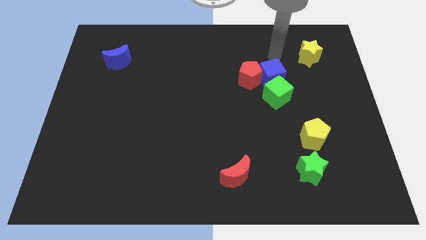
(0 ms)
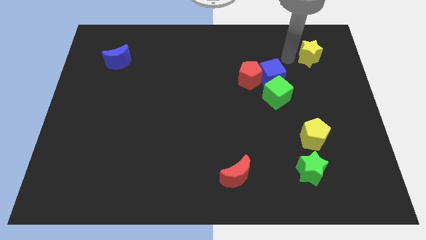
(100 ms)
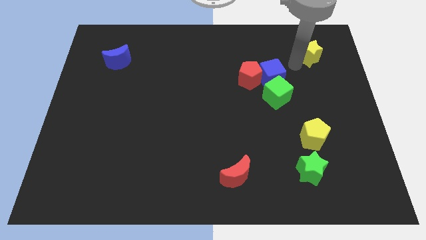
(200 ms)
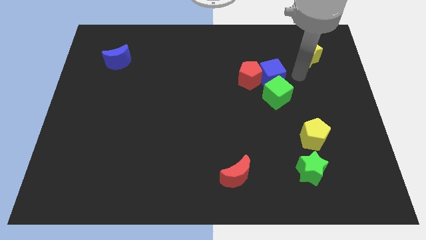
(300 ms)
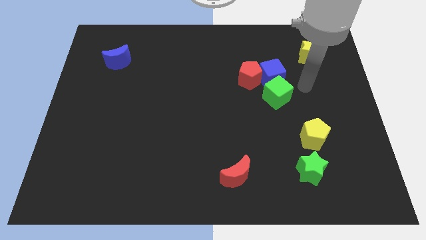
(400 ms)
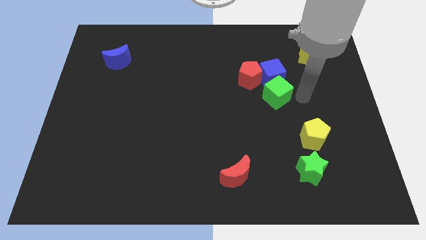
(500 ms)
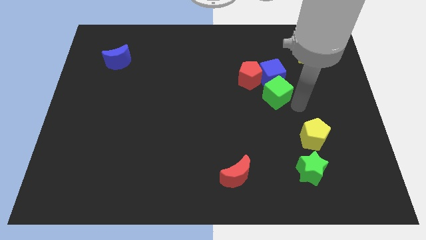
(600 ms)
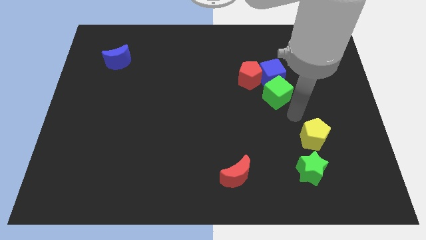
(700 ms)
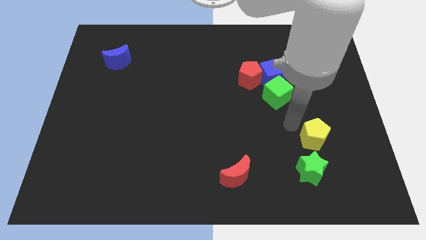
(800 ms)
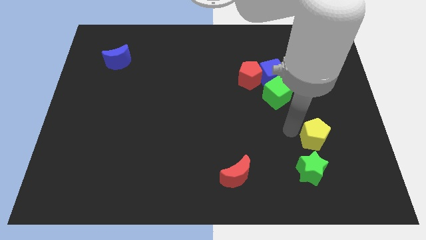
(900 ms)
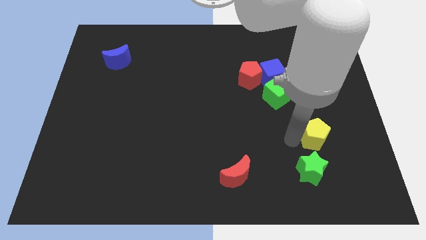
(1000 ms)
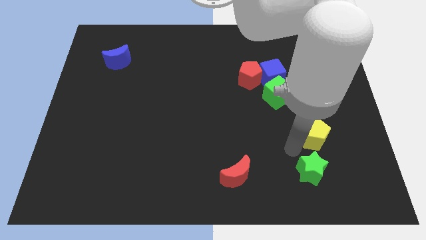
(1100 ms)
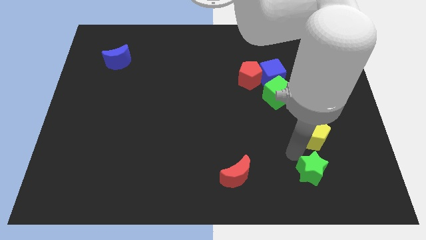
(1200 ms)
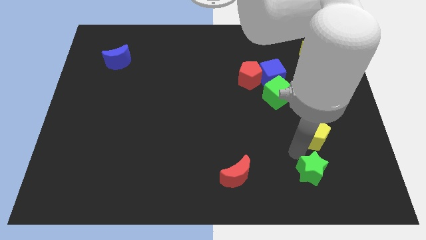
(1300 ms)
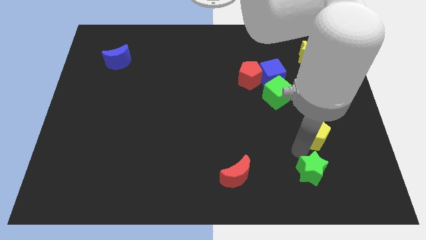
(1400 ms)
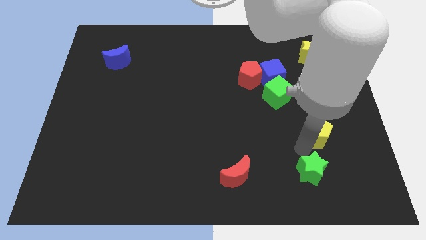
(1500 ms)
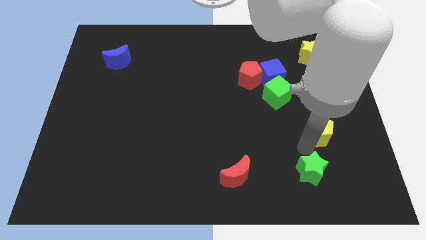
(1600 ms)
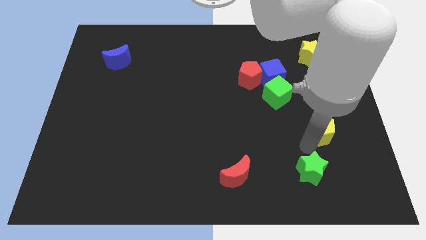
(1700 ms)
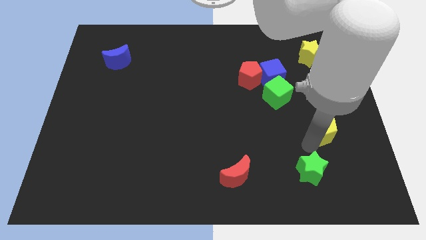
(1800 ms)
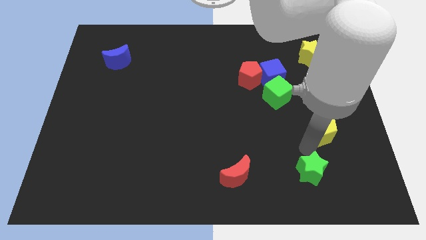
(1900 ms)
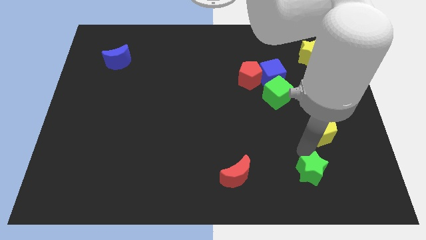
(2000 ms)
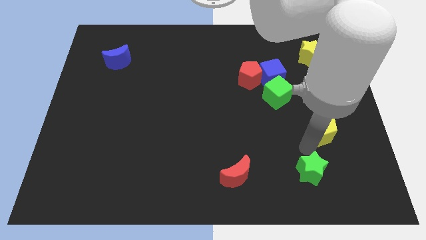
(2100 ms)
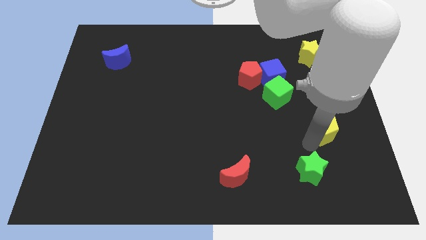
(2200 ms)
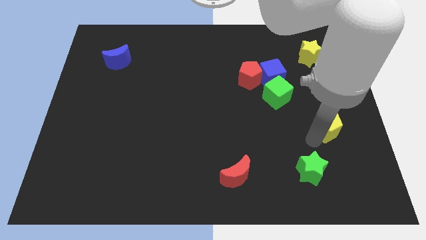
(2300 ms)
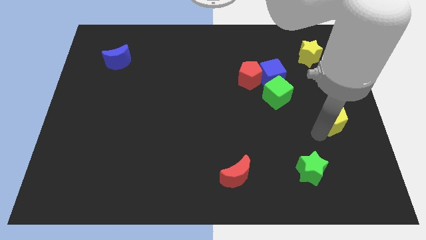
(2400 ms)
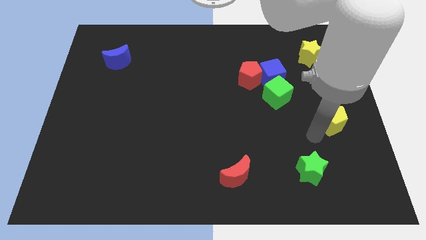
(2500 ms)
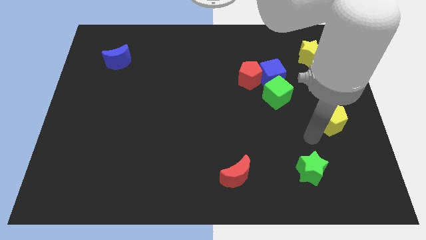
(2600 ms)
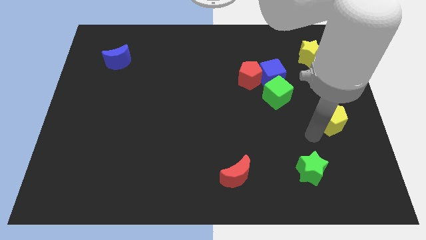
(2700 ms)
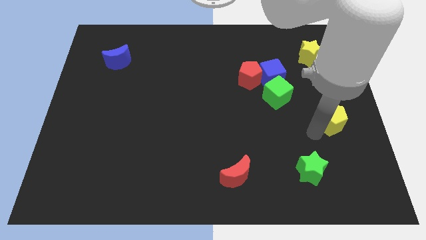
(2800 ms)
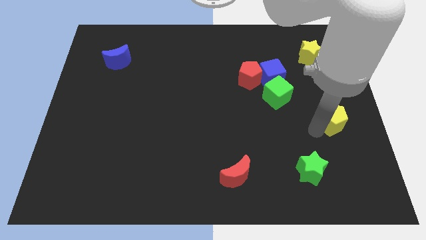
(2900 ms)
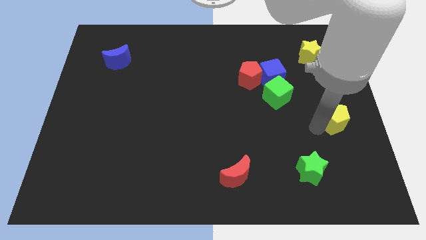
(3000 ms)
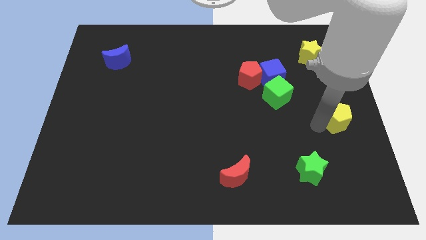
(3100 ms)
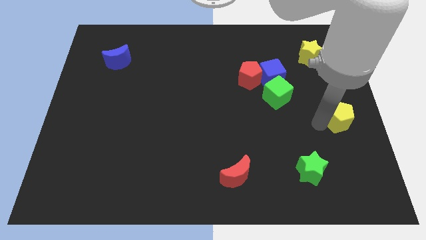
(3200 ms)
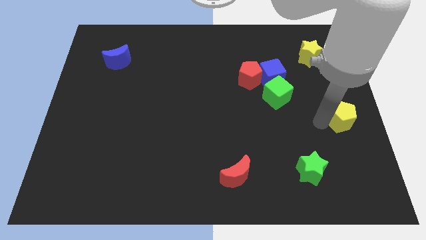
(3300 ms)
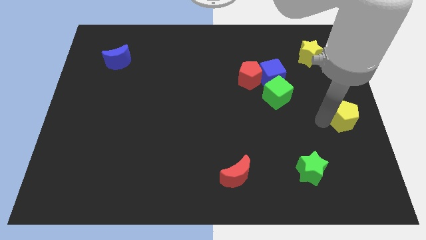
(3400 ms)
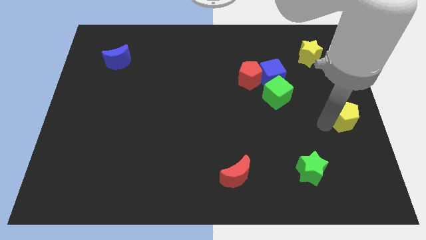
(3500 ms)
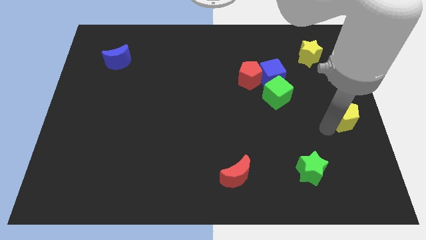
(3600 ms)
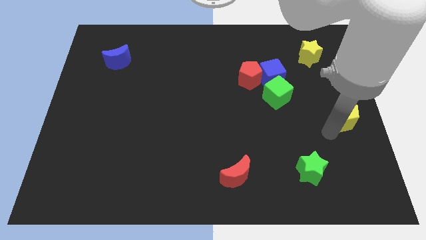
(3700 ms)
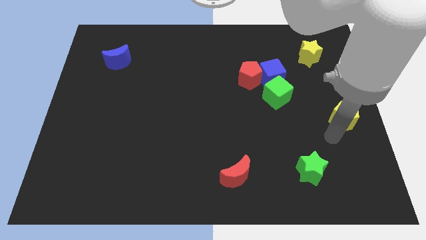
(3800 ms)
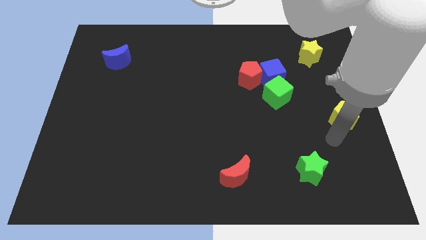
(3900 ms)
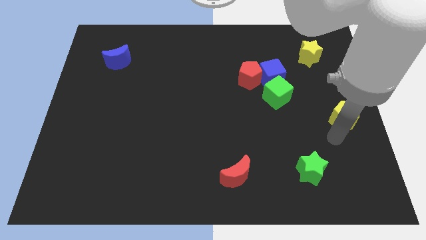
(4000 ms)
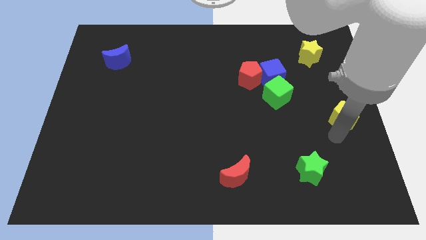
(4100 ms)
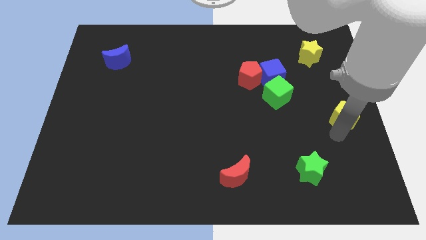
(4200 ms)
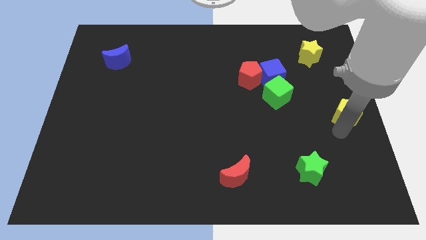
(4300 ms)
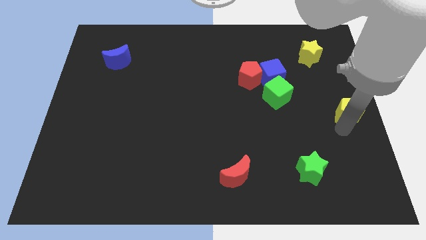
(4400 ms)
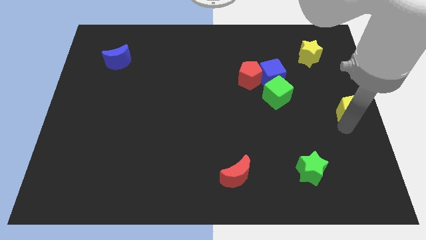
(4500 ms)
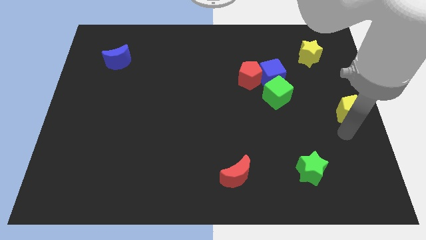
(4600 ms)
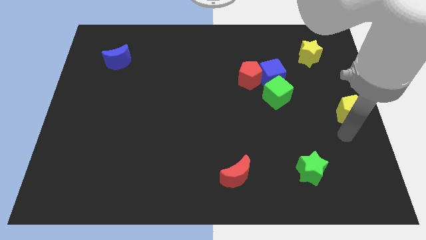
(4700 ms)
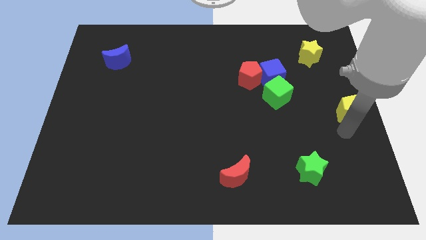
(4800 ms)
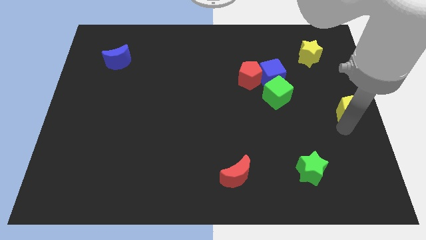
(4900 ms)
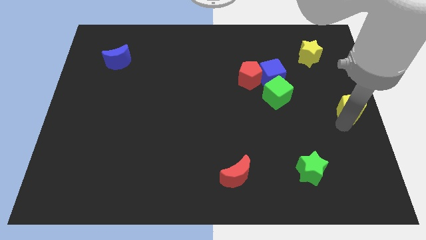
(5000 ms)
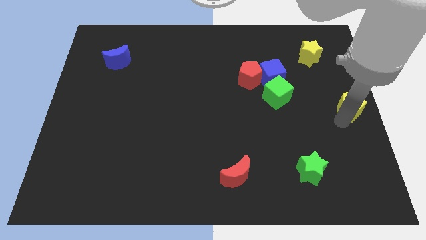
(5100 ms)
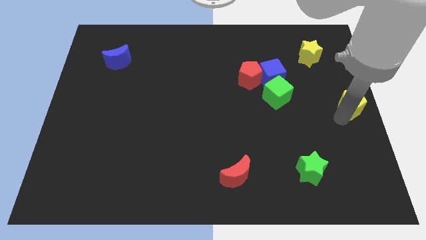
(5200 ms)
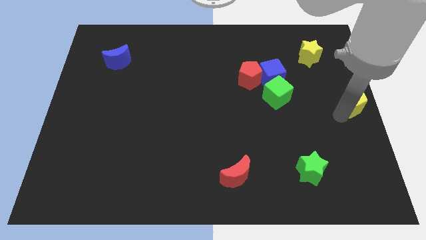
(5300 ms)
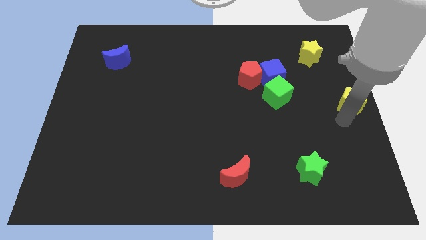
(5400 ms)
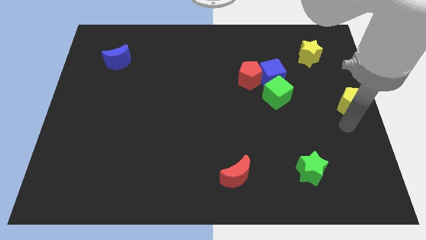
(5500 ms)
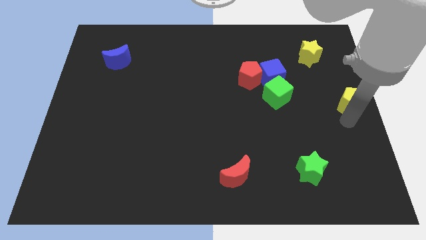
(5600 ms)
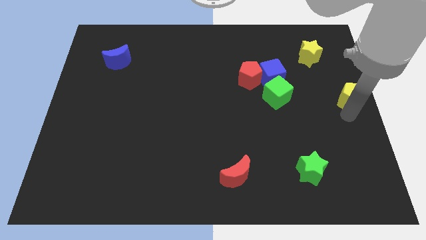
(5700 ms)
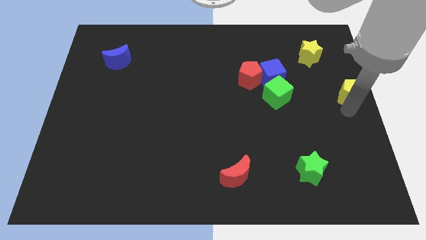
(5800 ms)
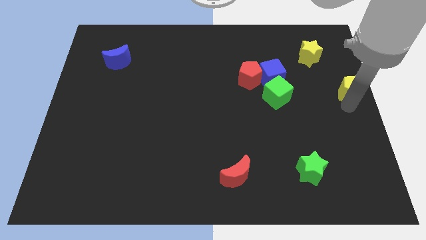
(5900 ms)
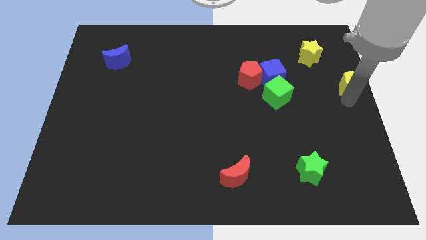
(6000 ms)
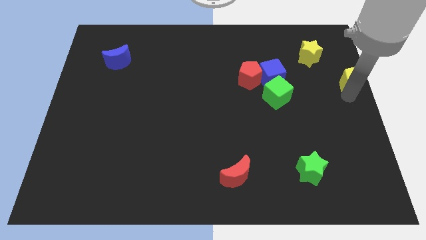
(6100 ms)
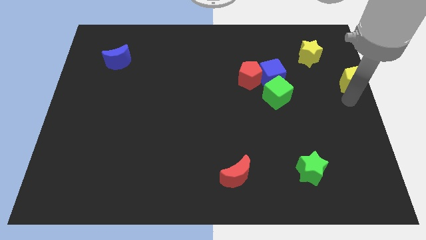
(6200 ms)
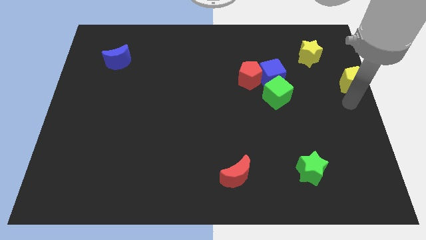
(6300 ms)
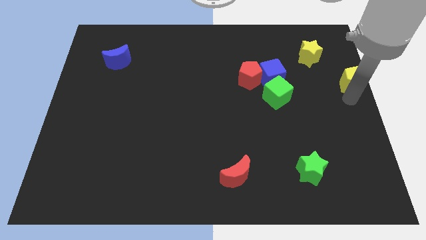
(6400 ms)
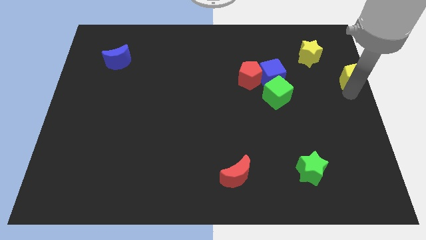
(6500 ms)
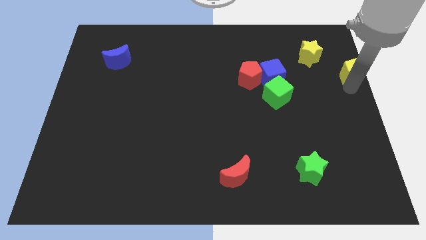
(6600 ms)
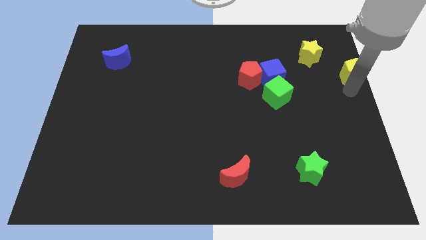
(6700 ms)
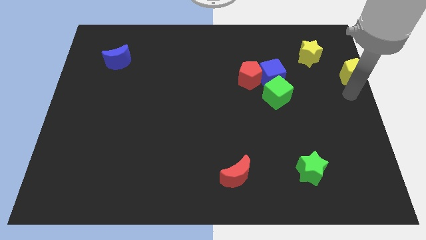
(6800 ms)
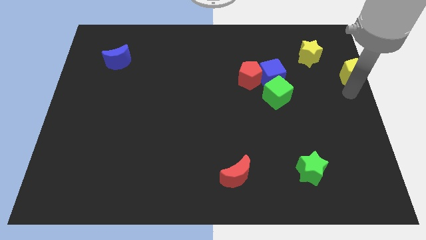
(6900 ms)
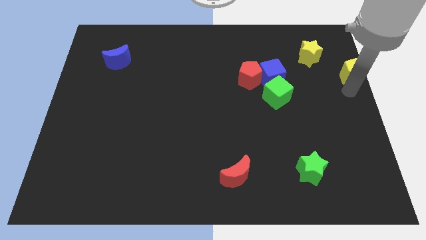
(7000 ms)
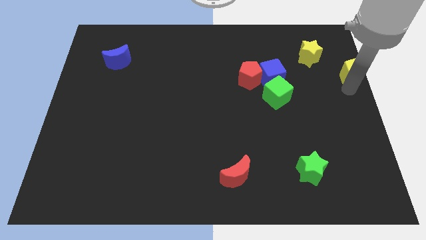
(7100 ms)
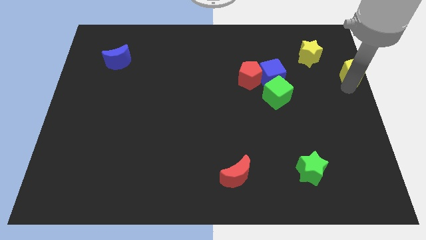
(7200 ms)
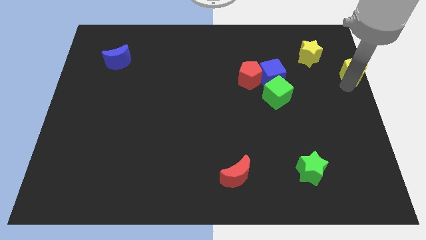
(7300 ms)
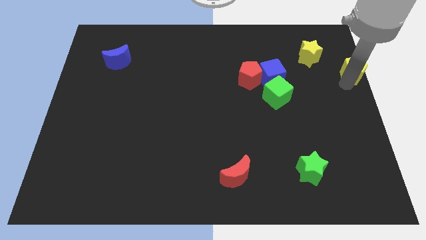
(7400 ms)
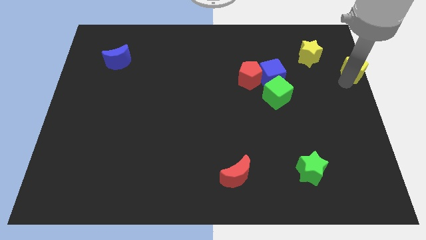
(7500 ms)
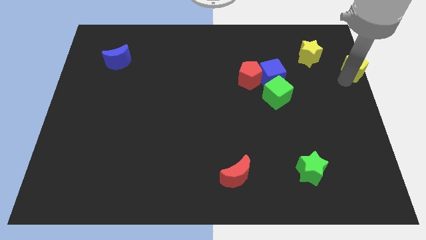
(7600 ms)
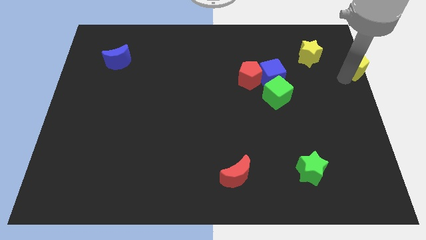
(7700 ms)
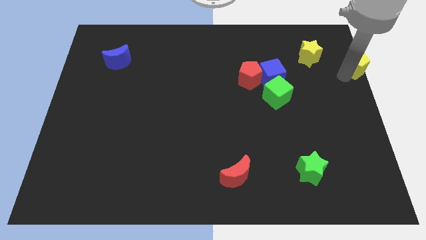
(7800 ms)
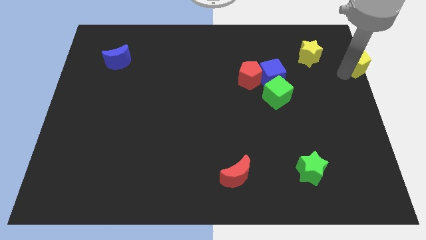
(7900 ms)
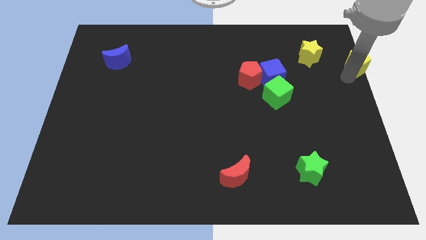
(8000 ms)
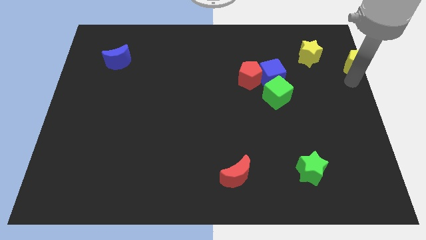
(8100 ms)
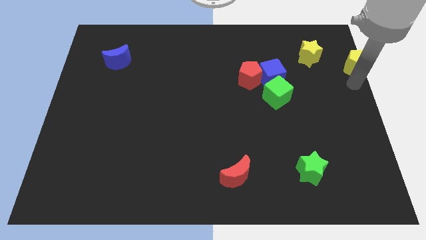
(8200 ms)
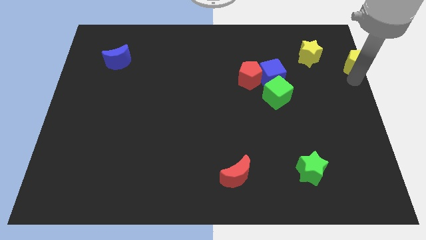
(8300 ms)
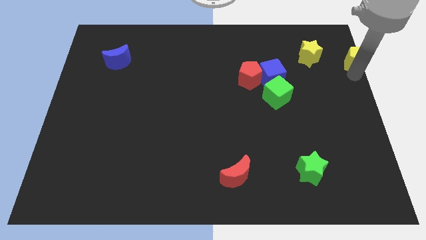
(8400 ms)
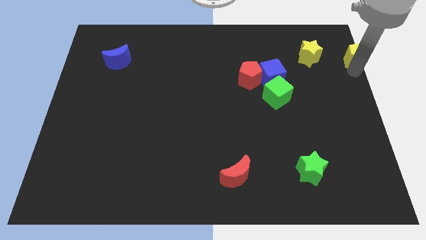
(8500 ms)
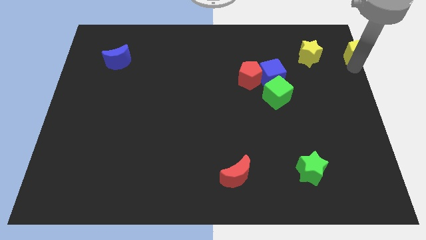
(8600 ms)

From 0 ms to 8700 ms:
slide the yellow pentagon to the upper right corner
